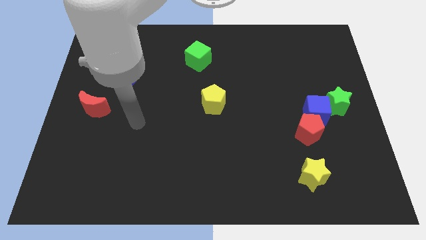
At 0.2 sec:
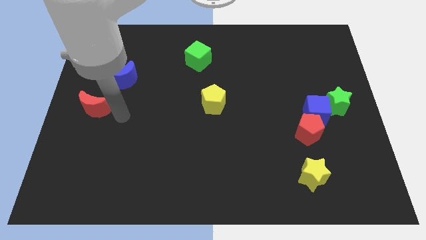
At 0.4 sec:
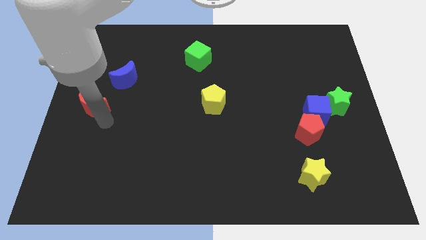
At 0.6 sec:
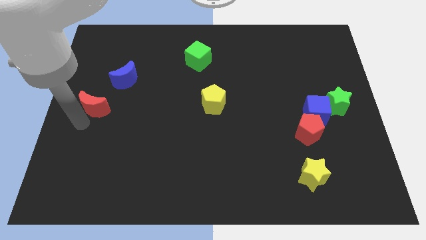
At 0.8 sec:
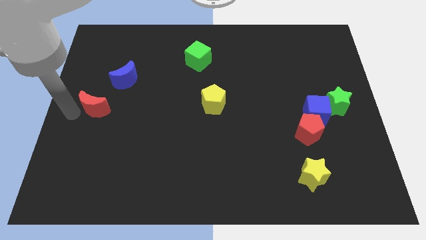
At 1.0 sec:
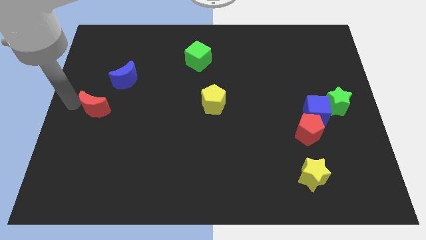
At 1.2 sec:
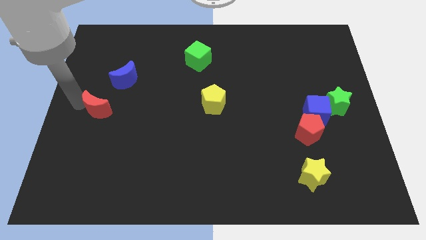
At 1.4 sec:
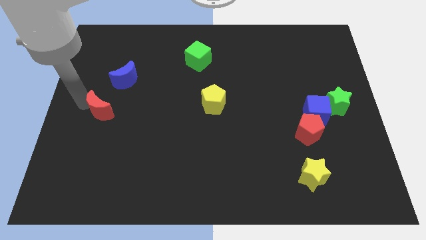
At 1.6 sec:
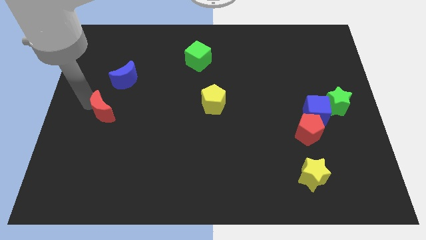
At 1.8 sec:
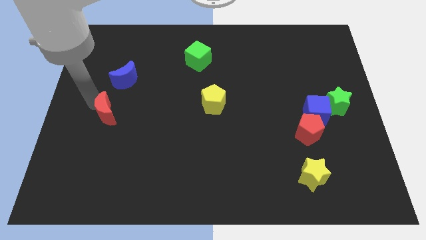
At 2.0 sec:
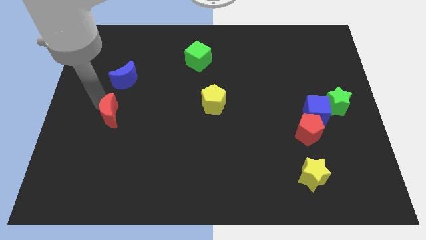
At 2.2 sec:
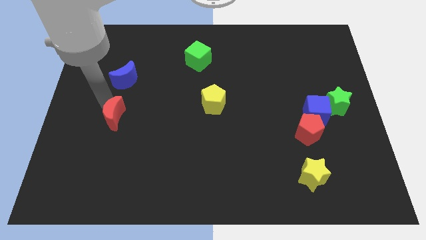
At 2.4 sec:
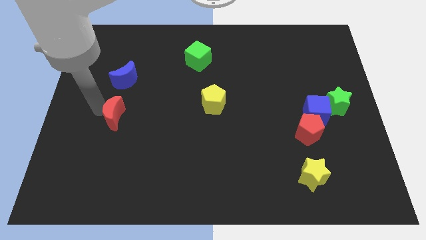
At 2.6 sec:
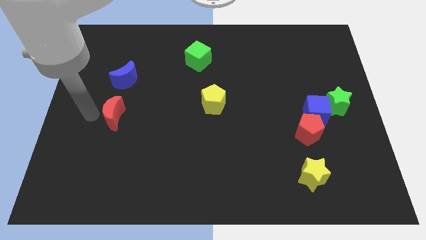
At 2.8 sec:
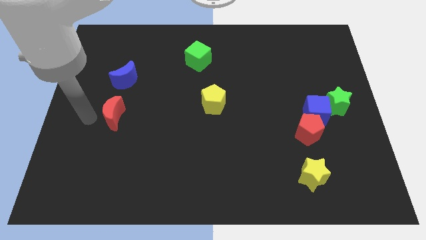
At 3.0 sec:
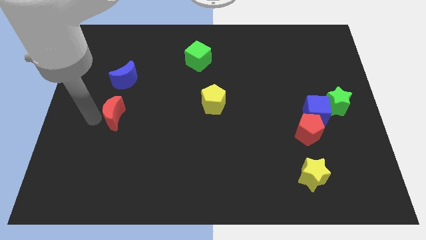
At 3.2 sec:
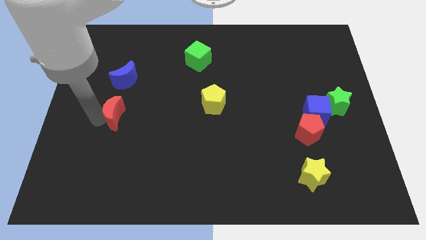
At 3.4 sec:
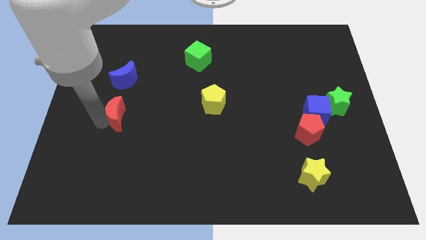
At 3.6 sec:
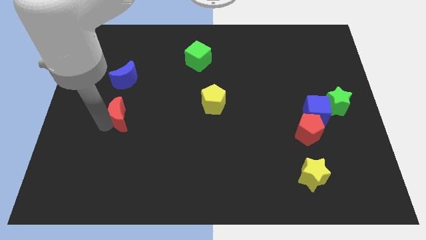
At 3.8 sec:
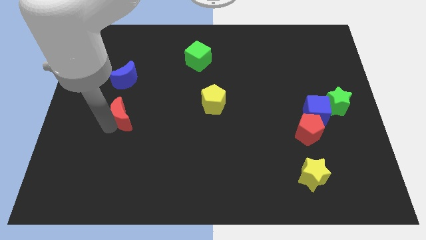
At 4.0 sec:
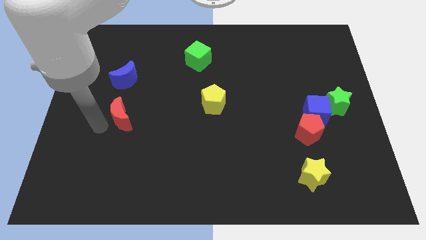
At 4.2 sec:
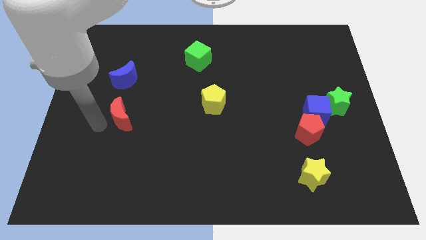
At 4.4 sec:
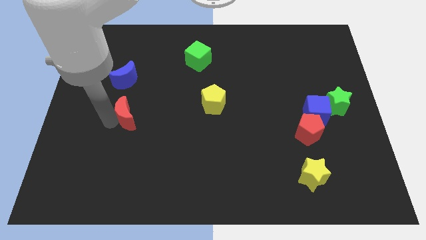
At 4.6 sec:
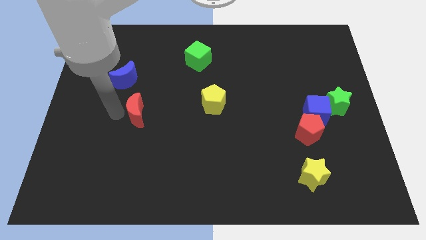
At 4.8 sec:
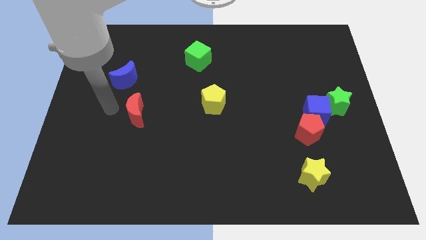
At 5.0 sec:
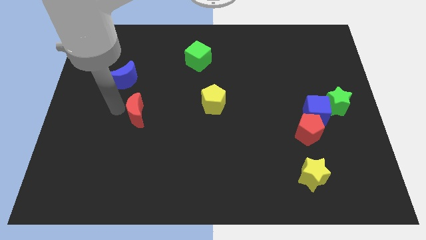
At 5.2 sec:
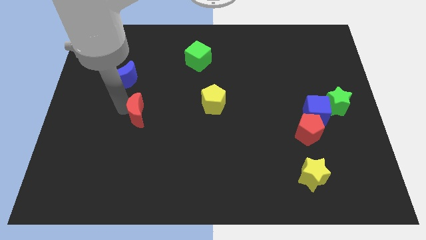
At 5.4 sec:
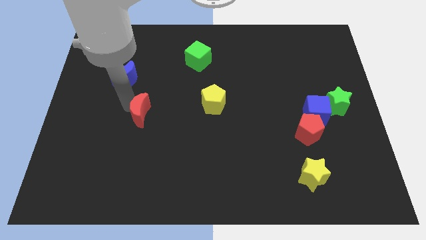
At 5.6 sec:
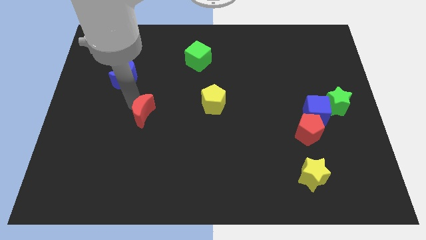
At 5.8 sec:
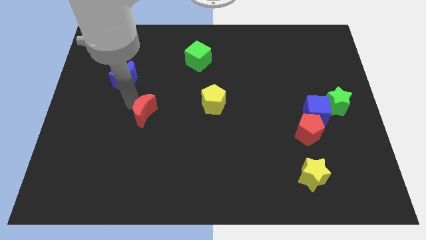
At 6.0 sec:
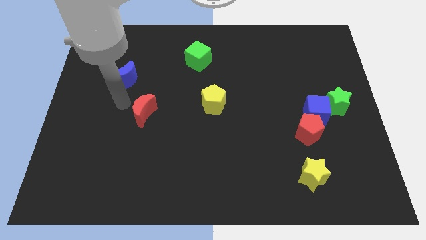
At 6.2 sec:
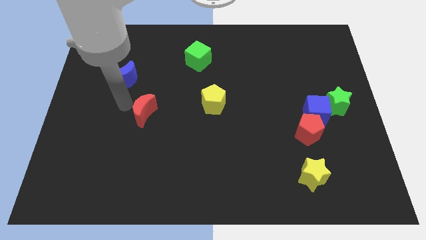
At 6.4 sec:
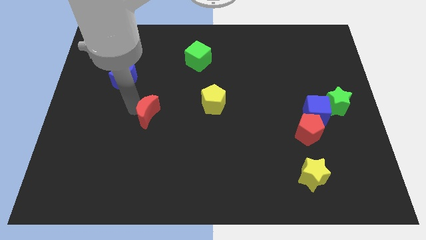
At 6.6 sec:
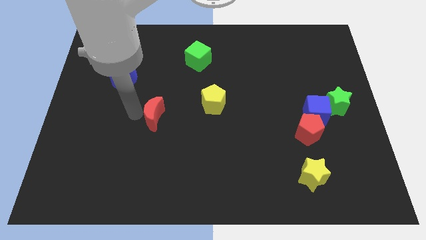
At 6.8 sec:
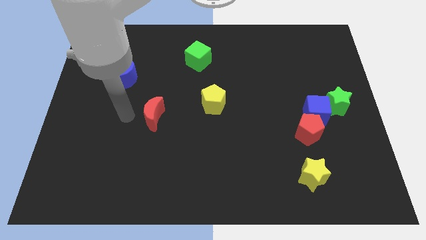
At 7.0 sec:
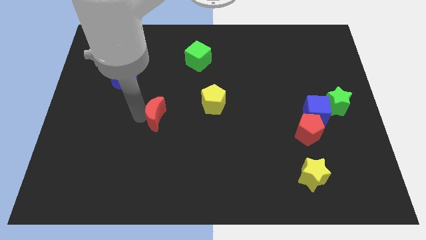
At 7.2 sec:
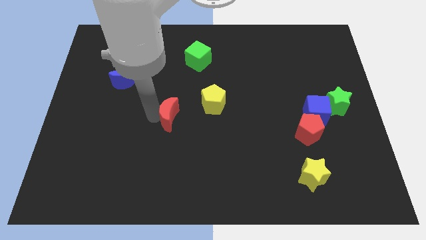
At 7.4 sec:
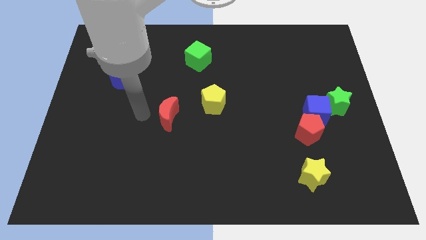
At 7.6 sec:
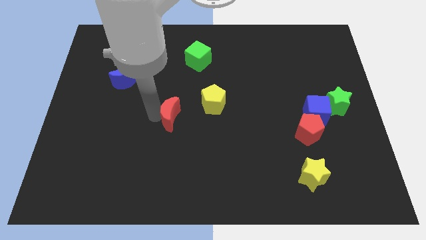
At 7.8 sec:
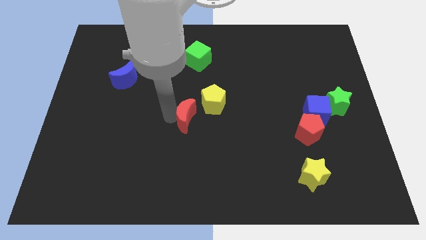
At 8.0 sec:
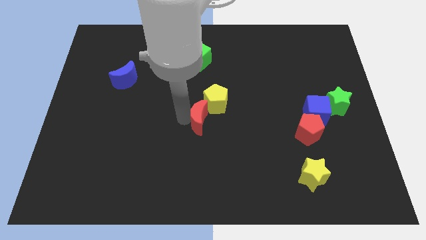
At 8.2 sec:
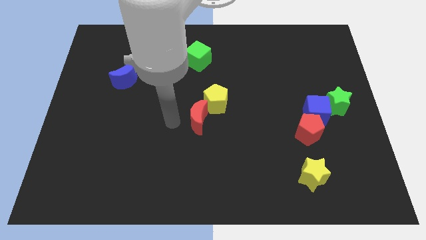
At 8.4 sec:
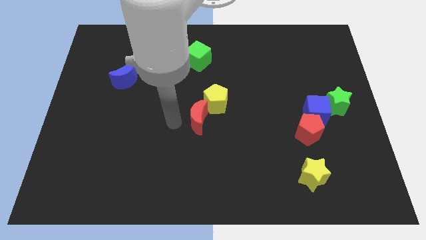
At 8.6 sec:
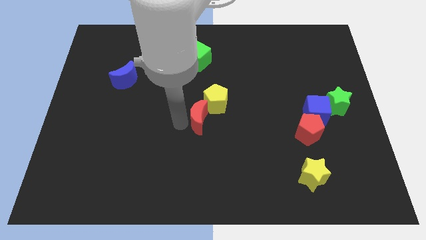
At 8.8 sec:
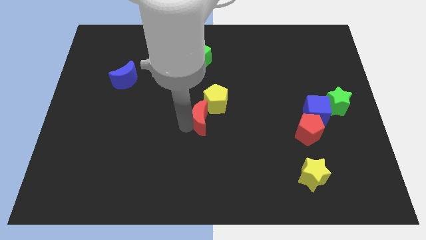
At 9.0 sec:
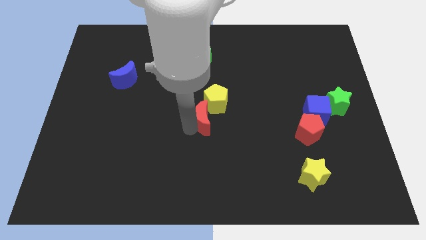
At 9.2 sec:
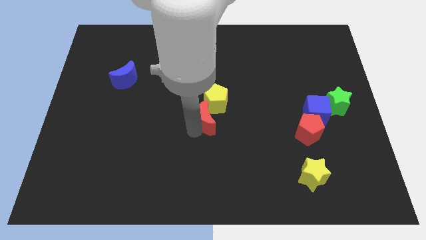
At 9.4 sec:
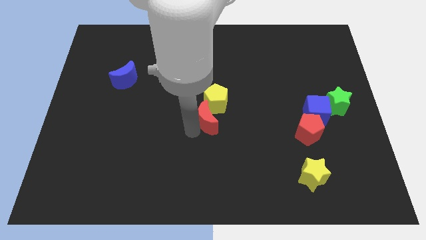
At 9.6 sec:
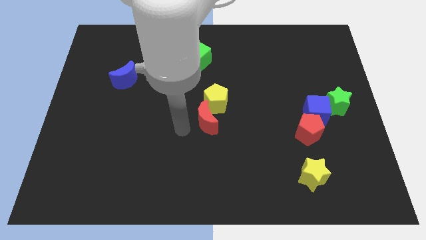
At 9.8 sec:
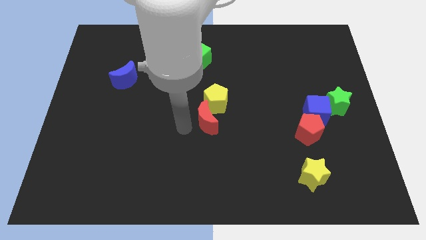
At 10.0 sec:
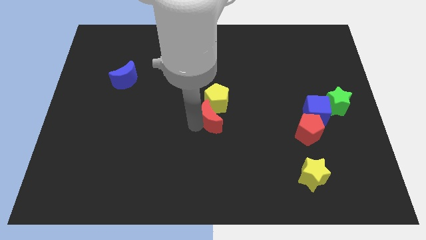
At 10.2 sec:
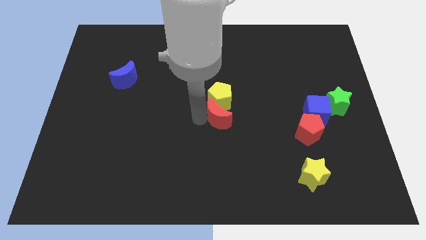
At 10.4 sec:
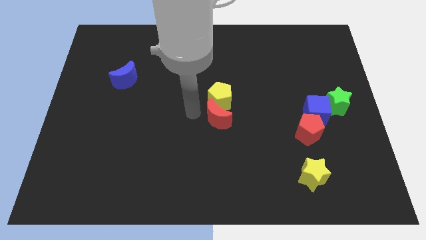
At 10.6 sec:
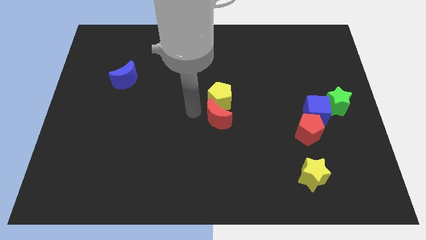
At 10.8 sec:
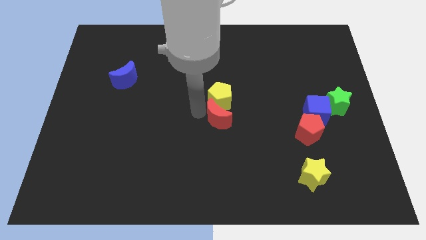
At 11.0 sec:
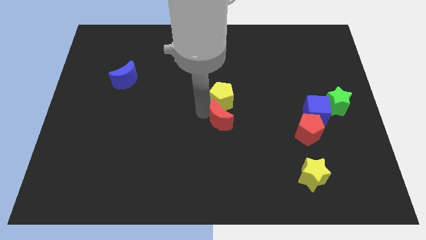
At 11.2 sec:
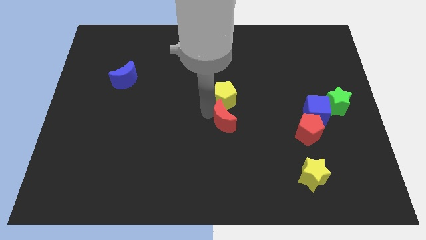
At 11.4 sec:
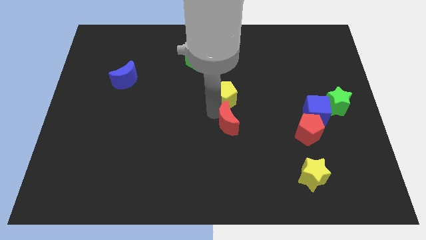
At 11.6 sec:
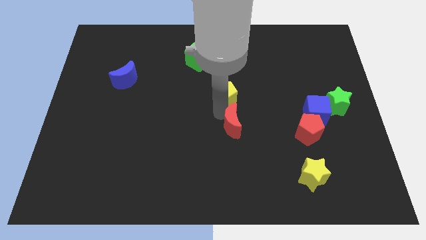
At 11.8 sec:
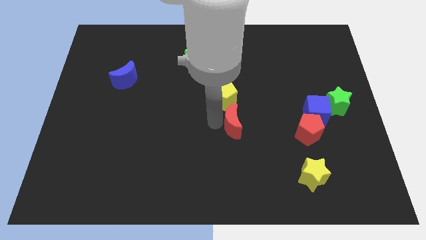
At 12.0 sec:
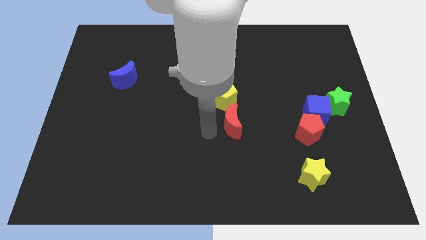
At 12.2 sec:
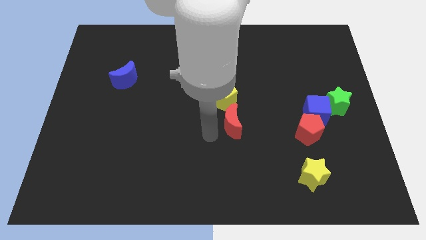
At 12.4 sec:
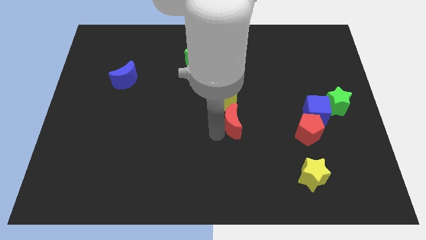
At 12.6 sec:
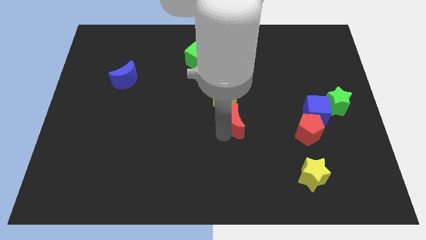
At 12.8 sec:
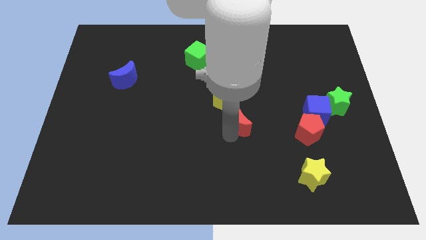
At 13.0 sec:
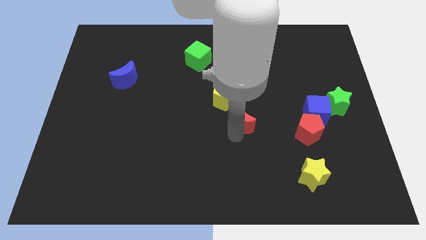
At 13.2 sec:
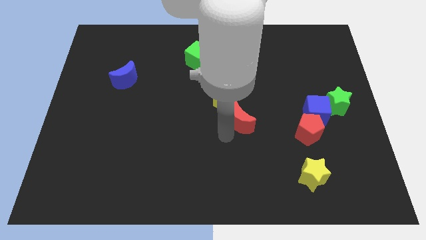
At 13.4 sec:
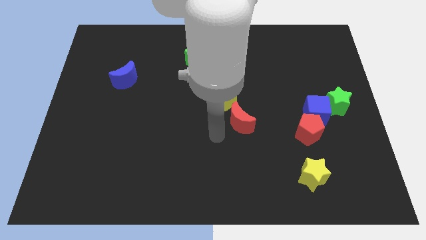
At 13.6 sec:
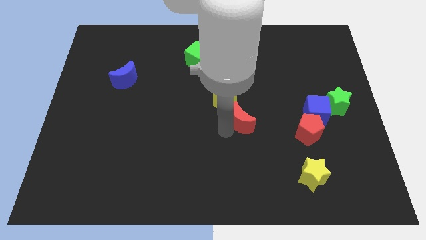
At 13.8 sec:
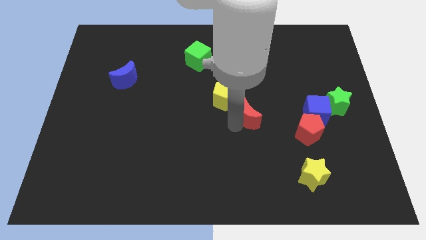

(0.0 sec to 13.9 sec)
slide the red moon to the left of the blue cube
